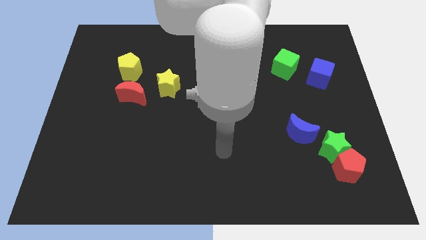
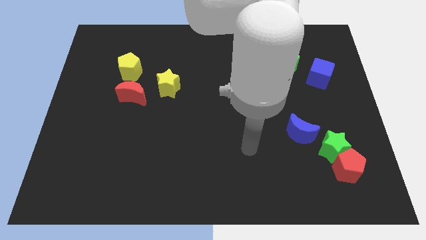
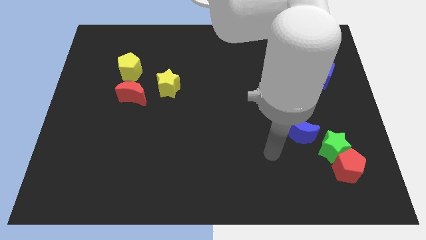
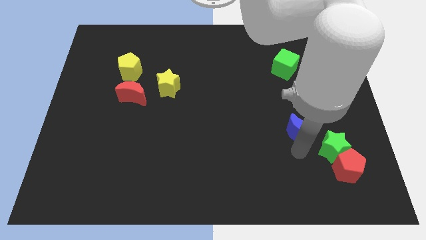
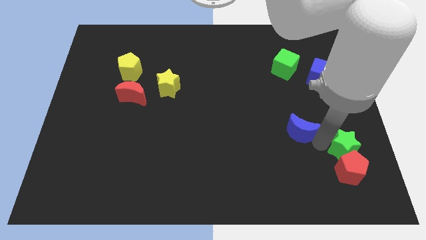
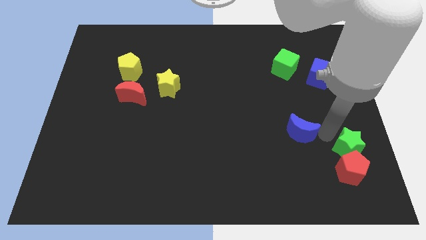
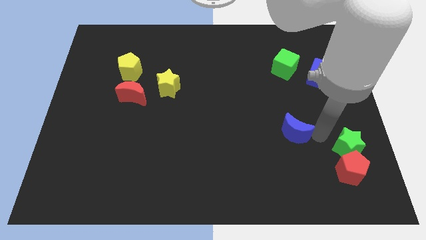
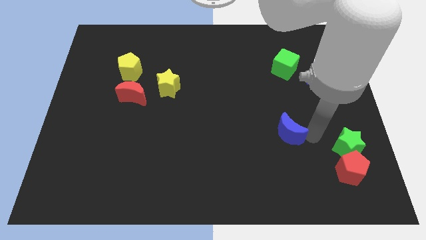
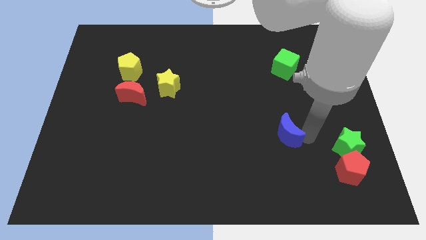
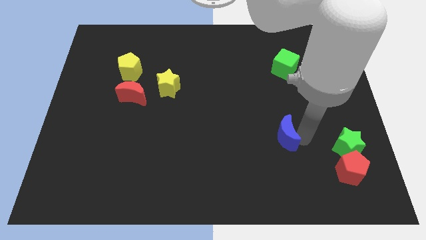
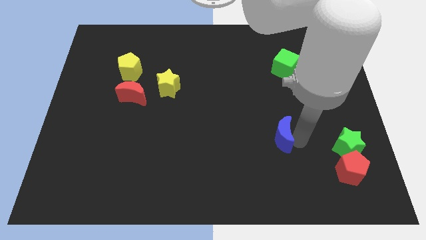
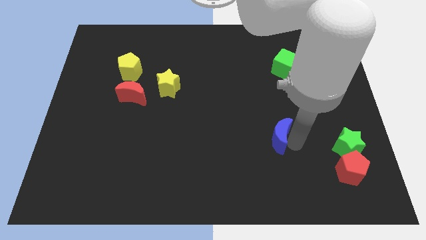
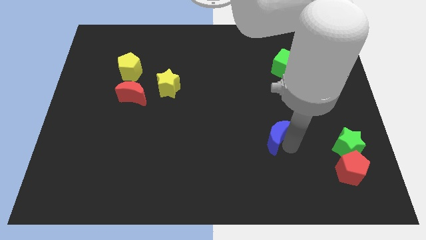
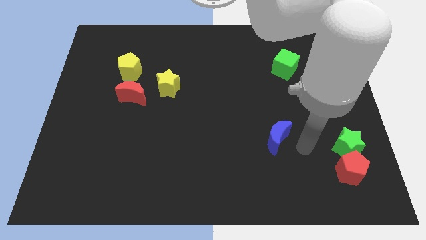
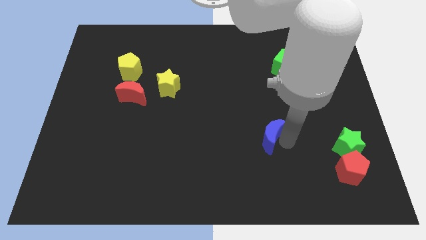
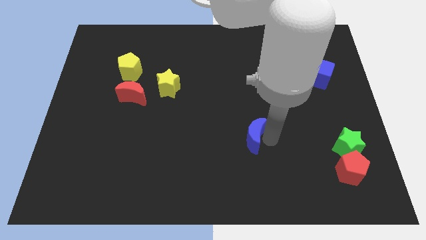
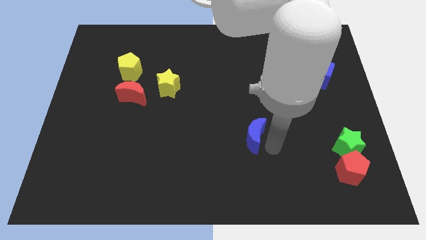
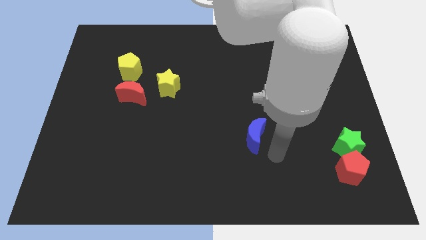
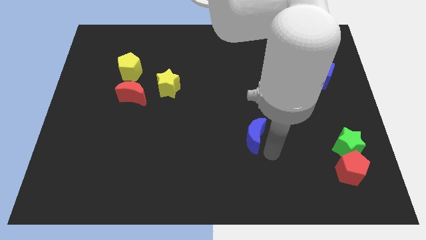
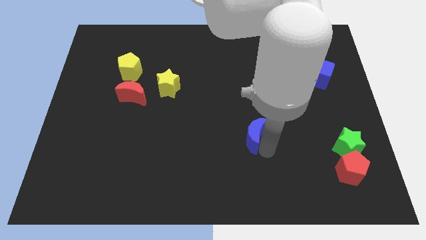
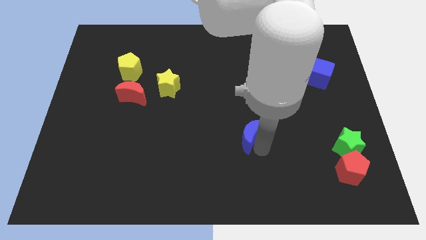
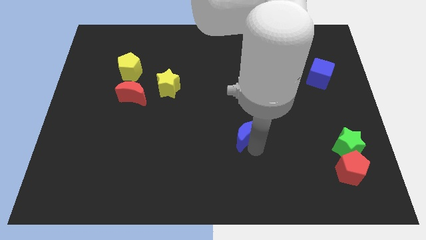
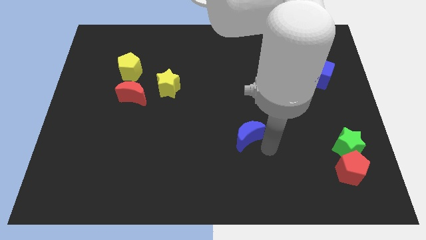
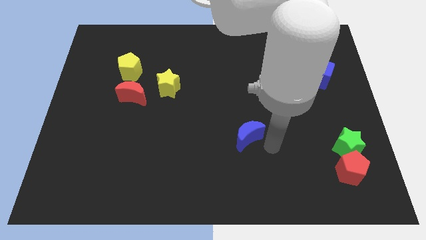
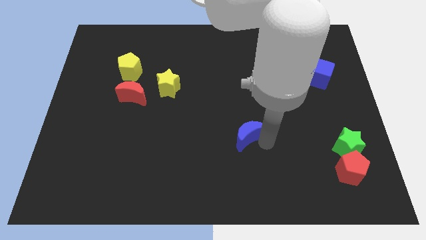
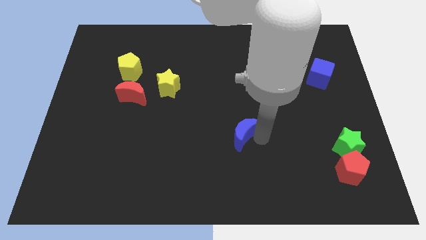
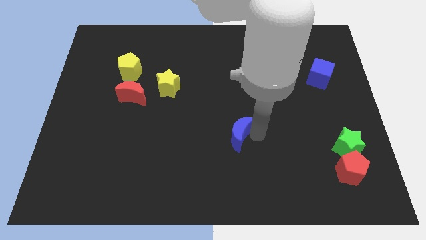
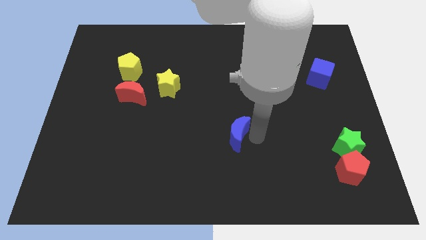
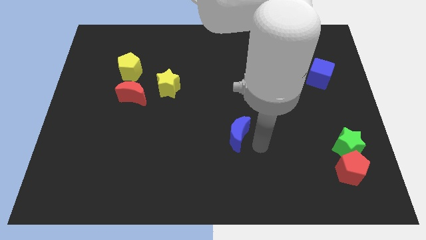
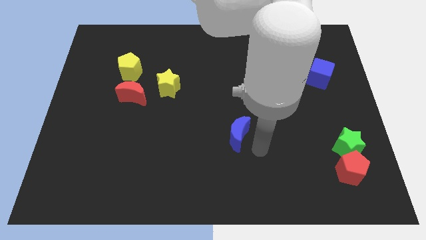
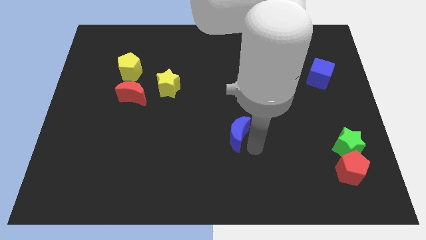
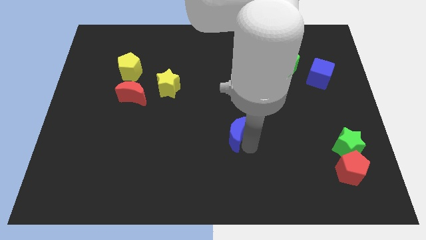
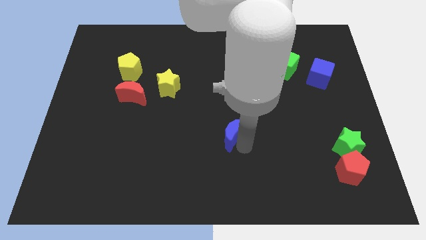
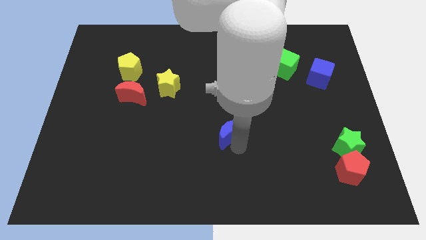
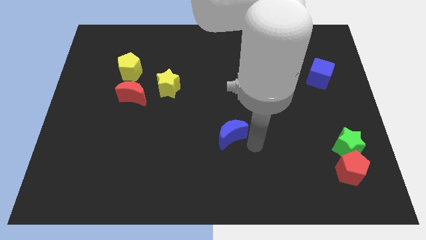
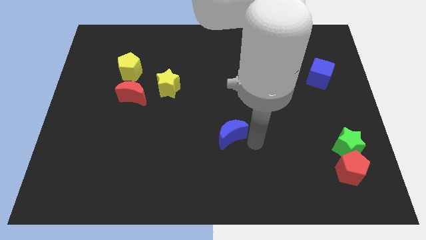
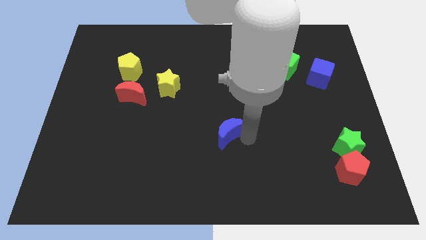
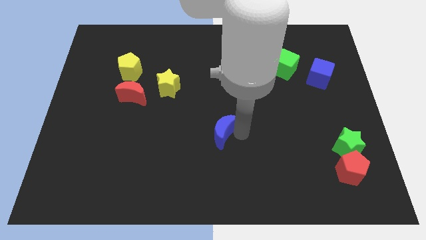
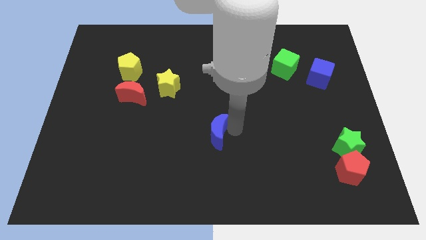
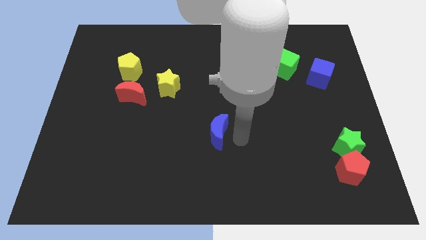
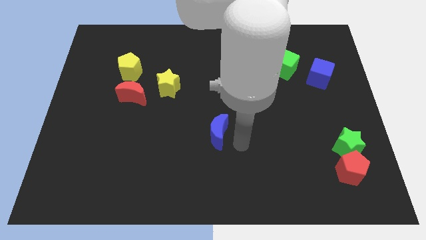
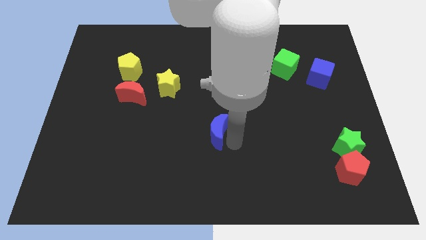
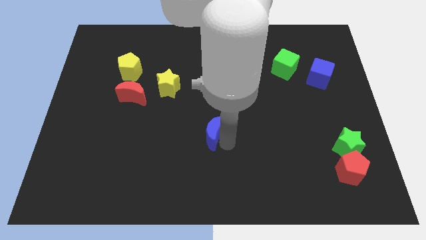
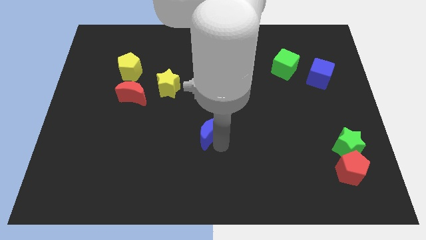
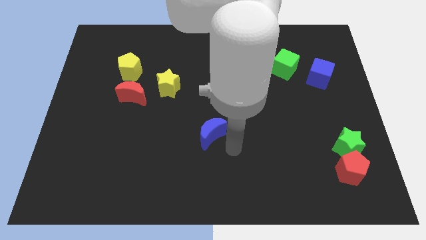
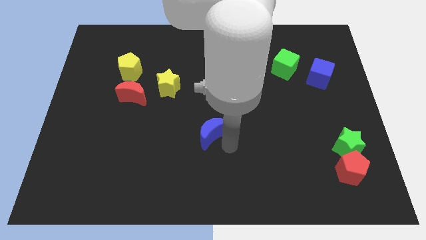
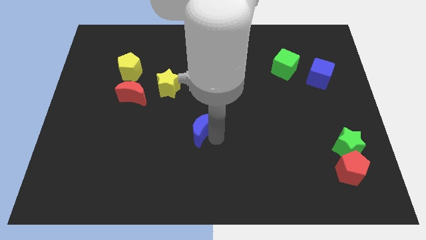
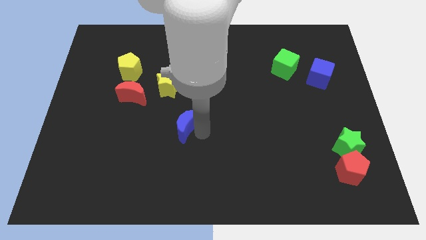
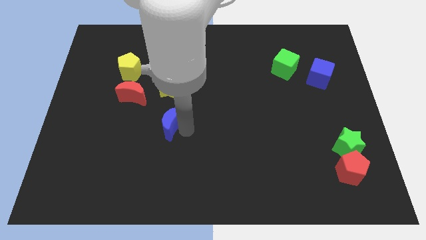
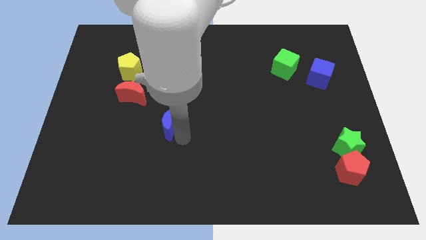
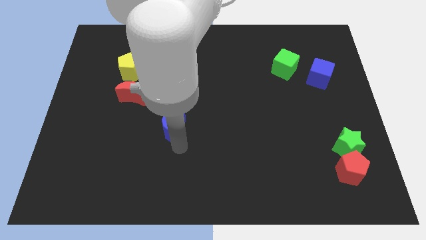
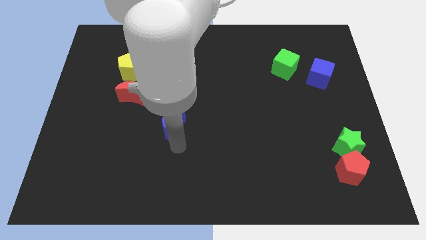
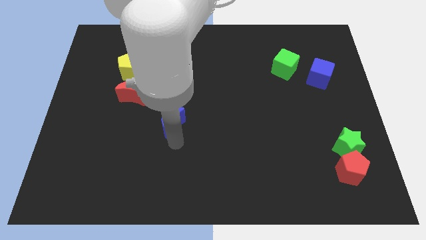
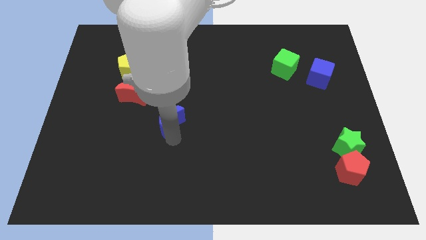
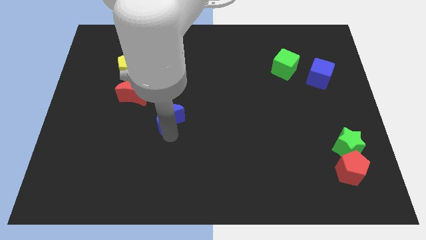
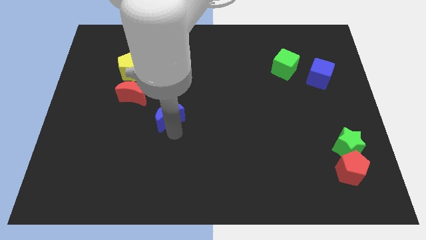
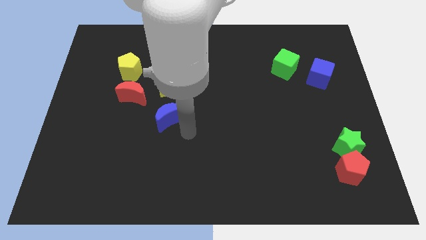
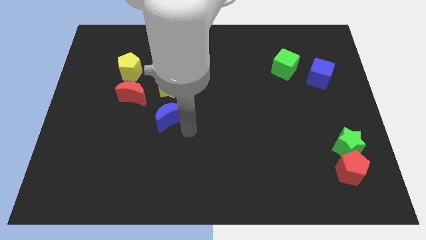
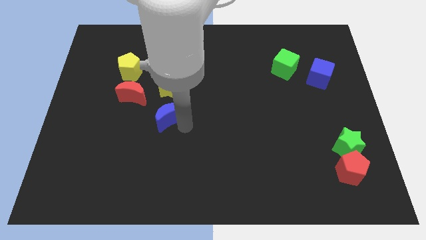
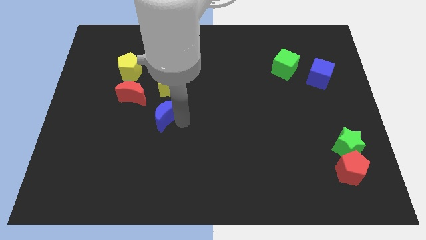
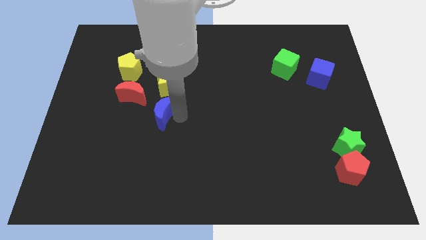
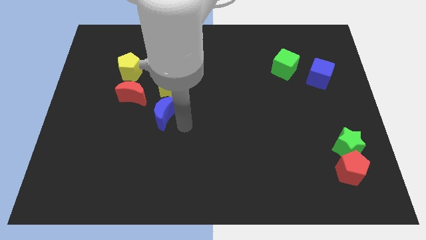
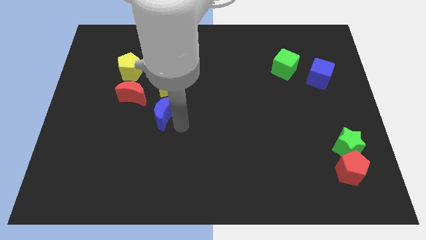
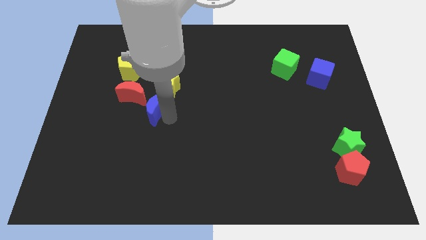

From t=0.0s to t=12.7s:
push the blue moon diagonally down and to the left of the yellow star

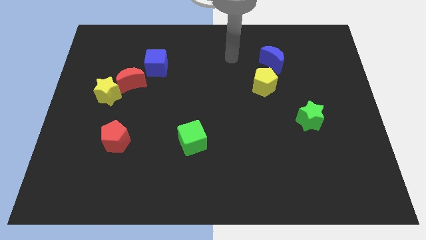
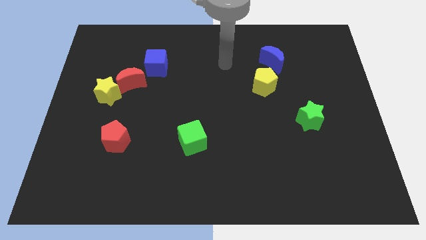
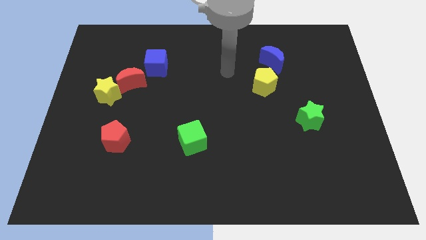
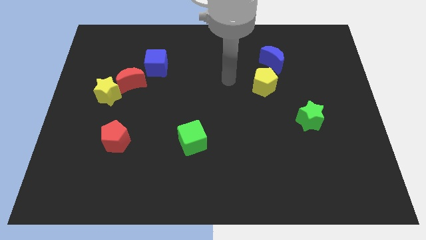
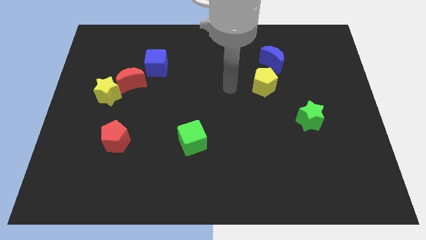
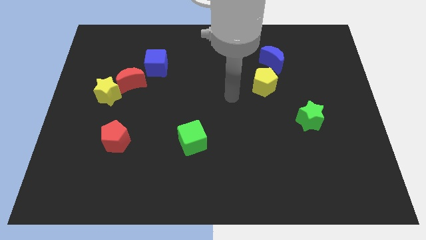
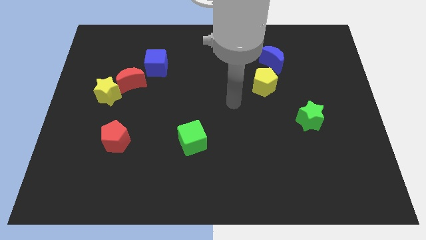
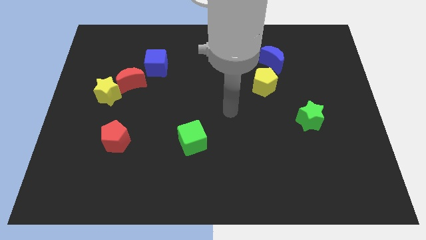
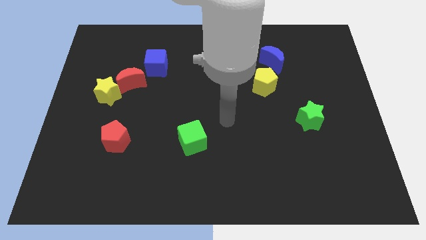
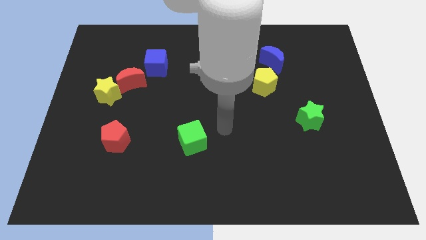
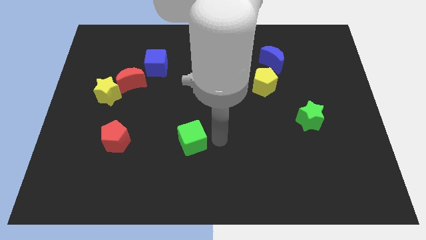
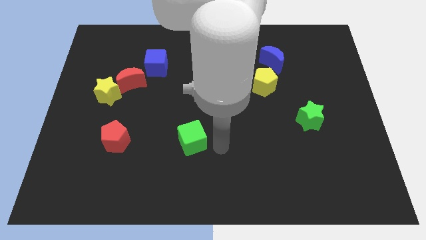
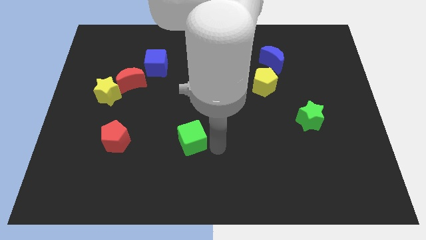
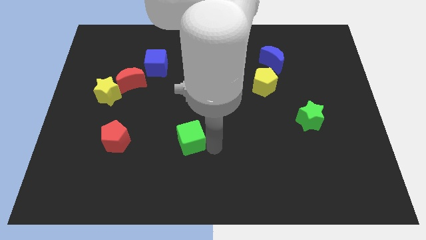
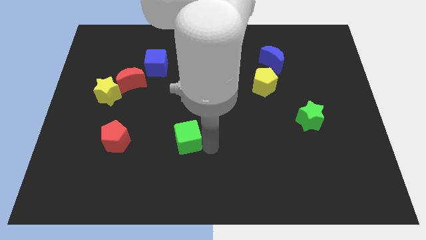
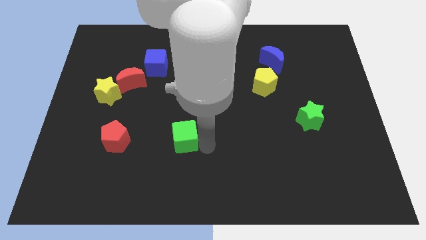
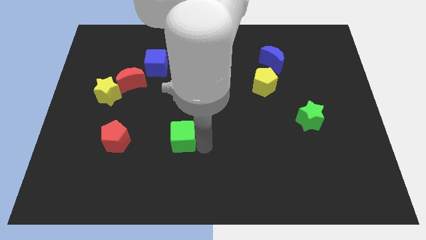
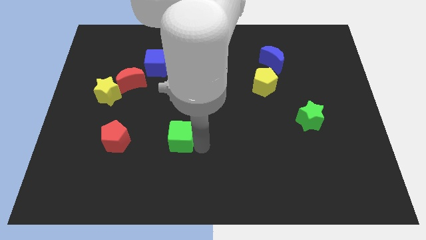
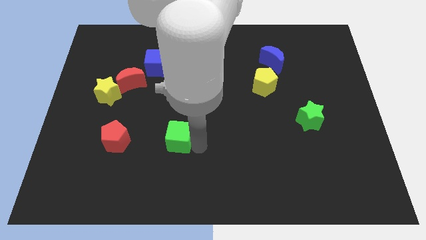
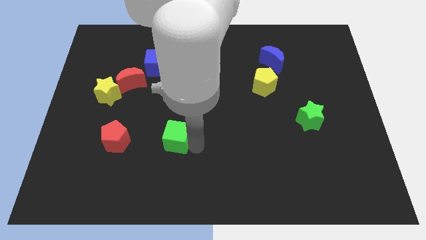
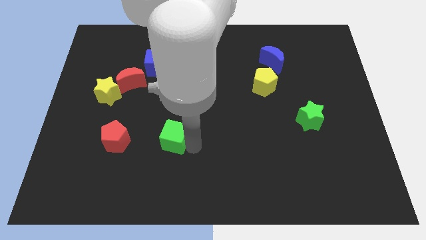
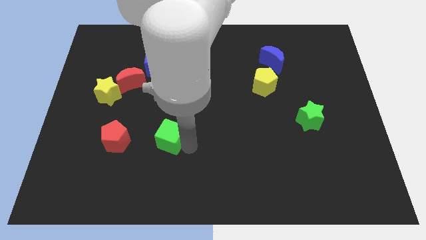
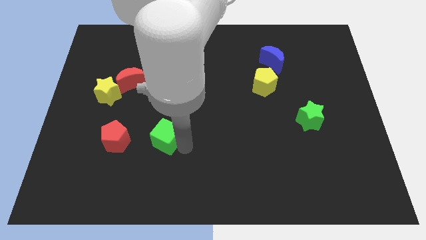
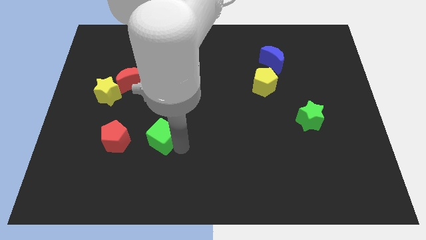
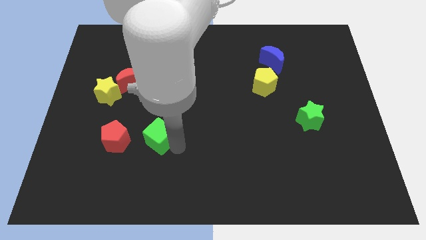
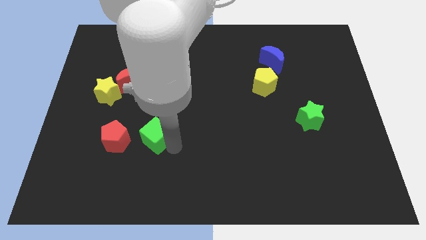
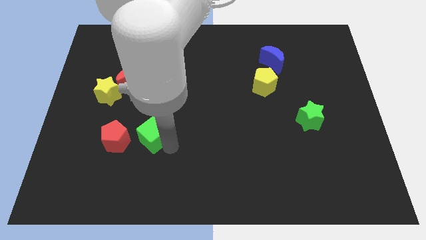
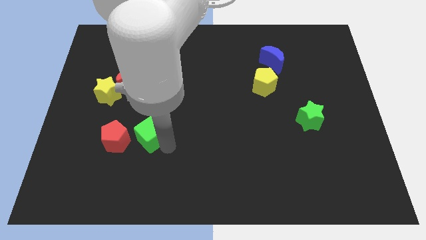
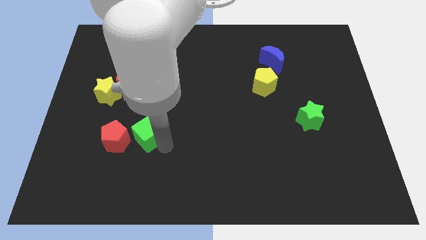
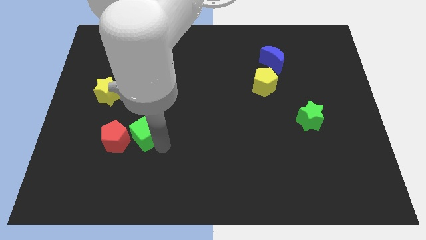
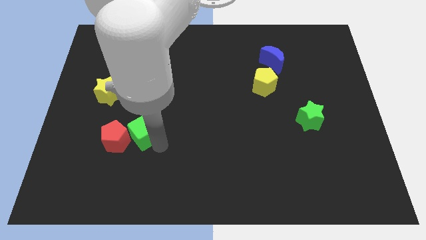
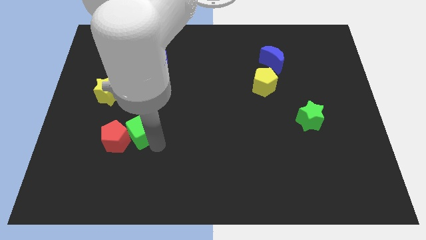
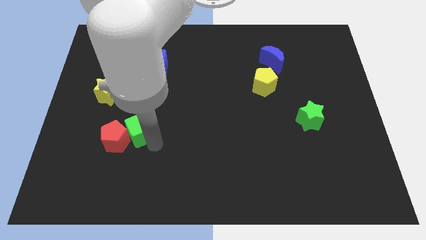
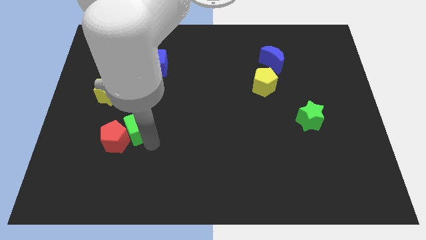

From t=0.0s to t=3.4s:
move the green cube below the red moon
